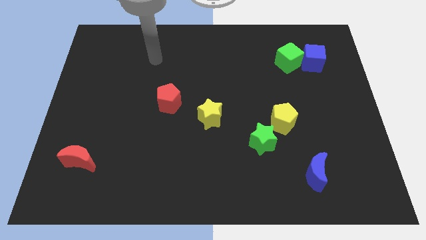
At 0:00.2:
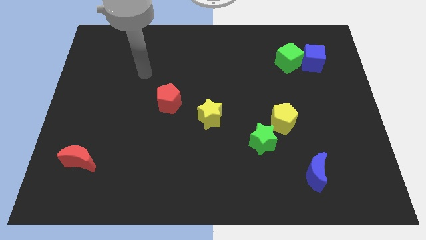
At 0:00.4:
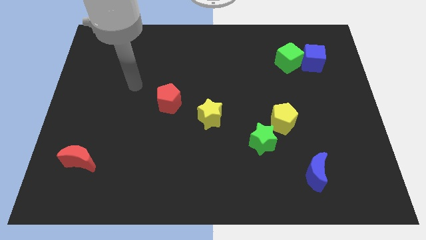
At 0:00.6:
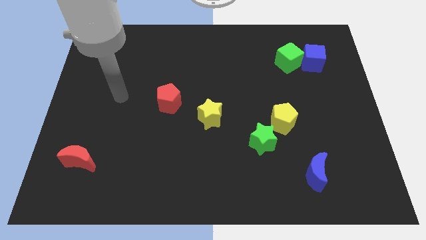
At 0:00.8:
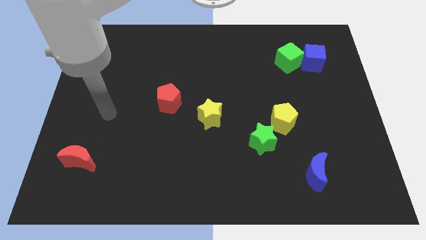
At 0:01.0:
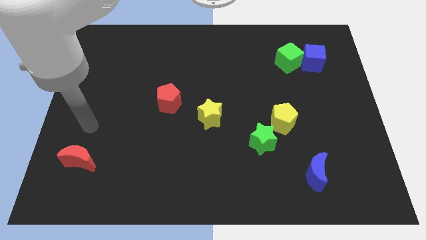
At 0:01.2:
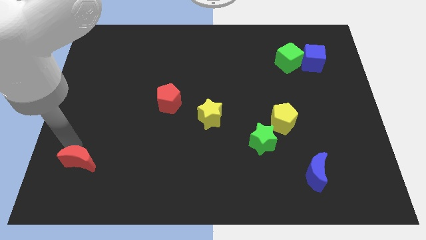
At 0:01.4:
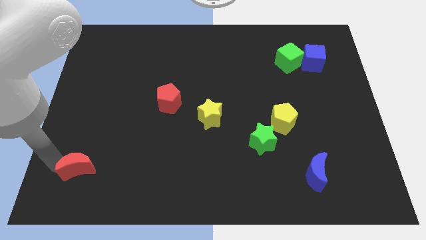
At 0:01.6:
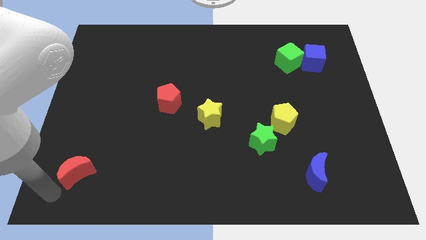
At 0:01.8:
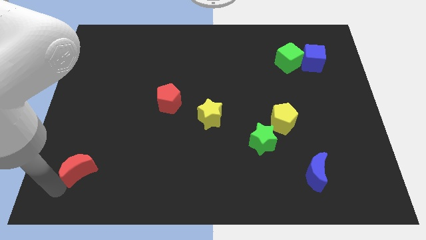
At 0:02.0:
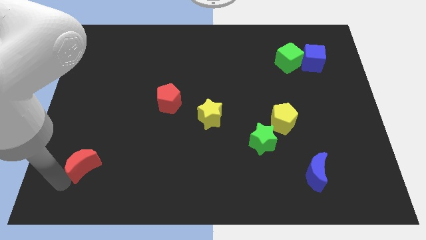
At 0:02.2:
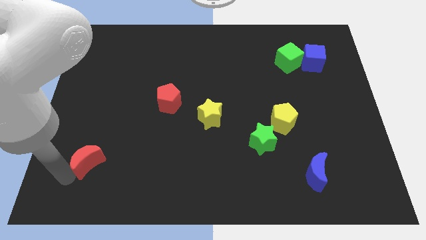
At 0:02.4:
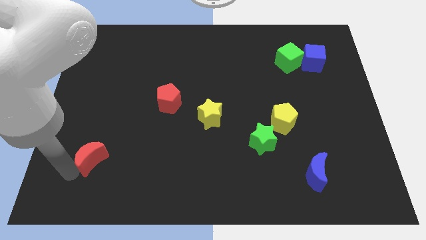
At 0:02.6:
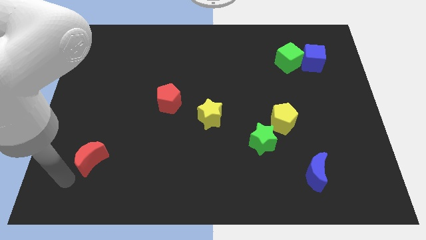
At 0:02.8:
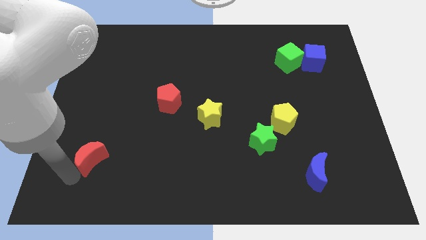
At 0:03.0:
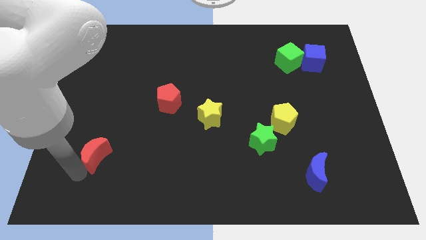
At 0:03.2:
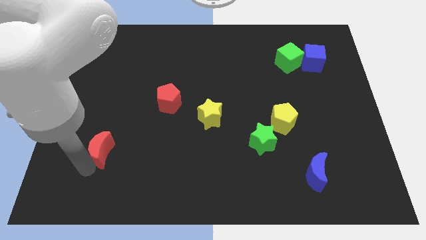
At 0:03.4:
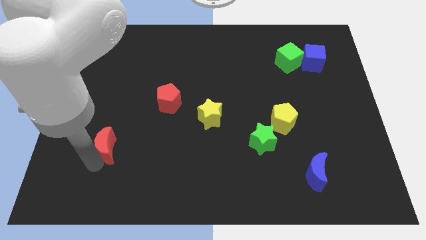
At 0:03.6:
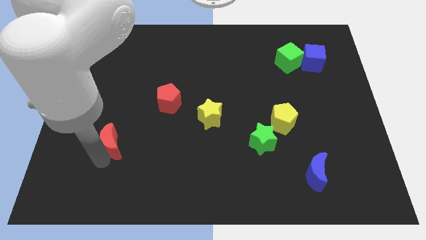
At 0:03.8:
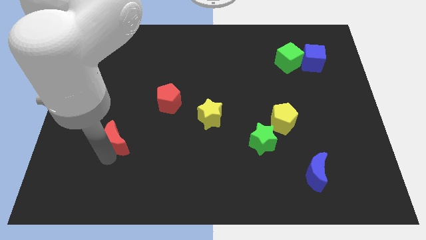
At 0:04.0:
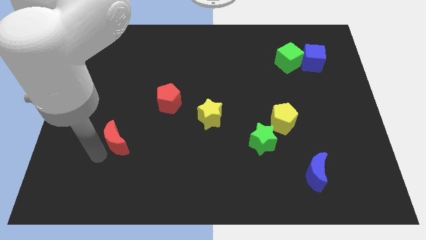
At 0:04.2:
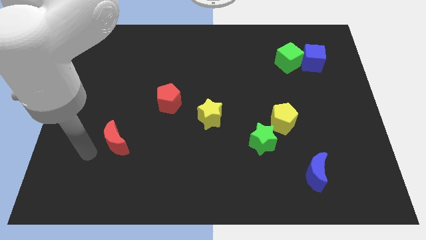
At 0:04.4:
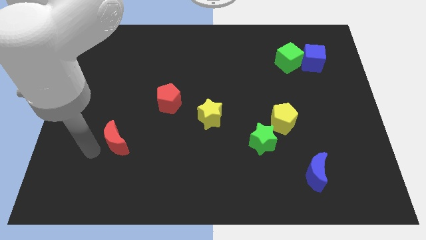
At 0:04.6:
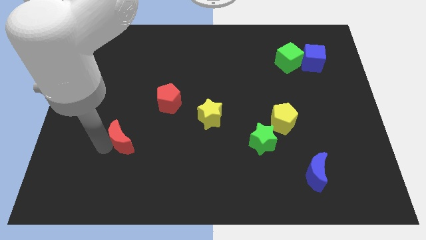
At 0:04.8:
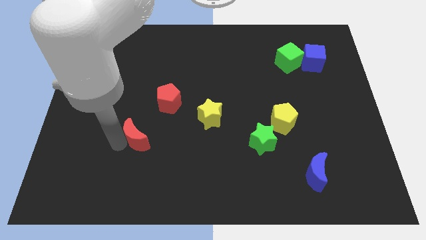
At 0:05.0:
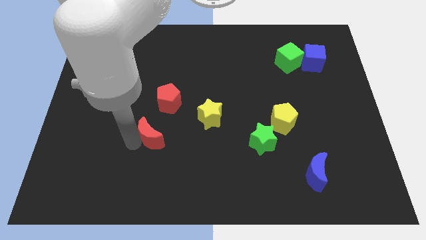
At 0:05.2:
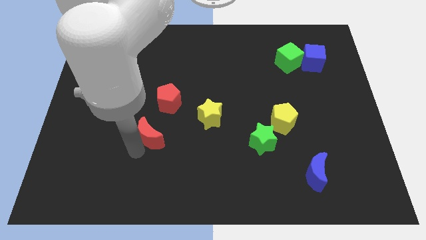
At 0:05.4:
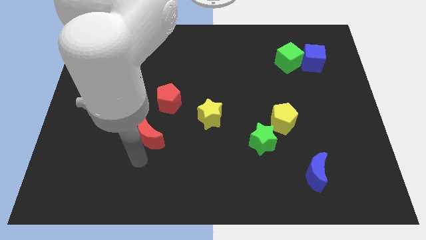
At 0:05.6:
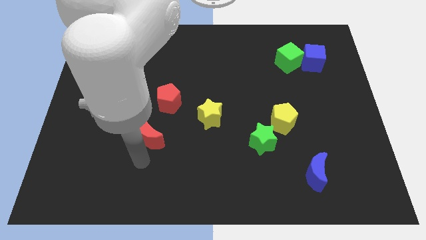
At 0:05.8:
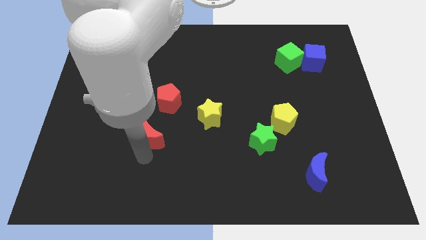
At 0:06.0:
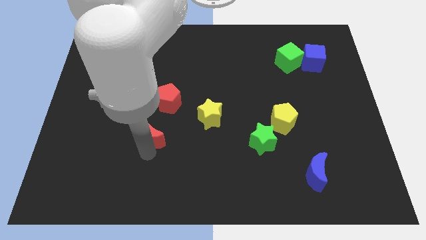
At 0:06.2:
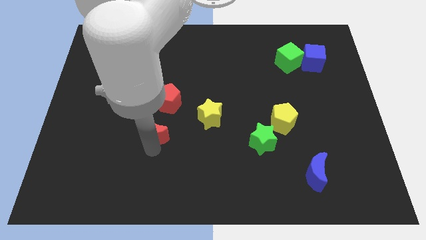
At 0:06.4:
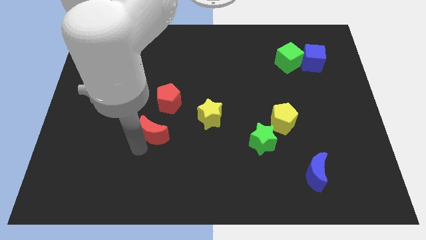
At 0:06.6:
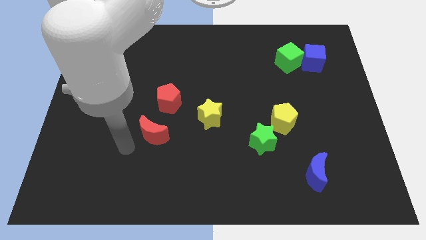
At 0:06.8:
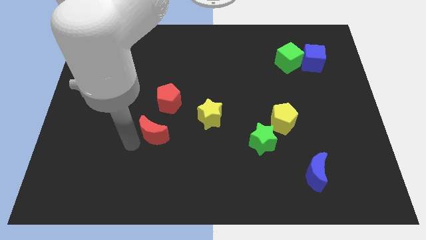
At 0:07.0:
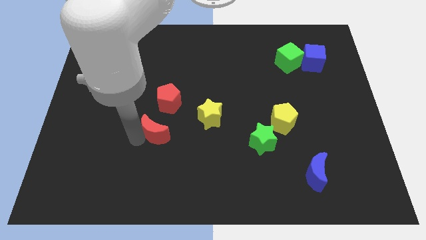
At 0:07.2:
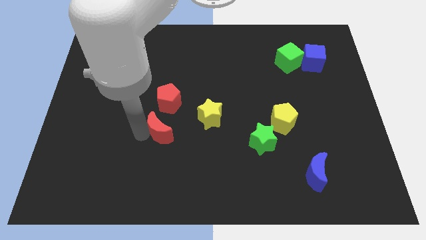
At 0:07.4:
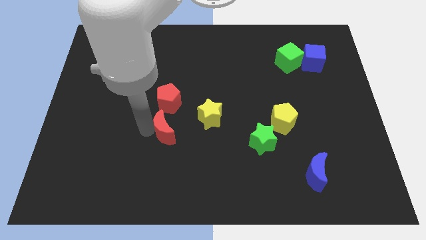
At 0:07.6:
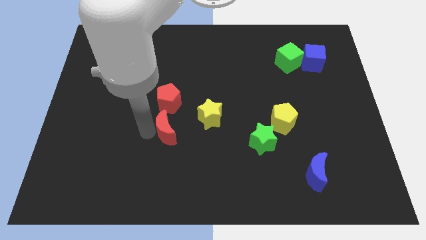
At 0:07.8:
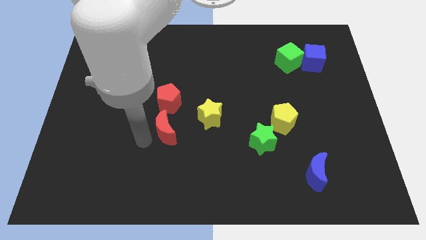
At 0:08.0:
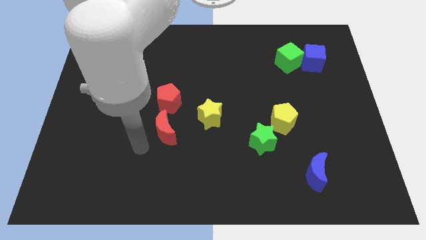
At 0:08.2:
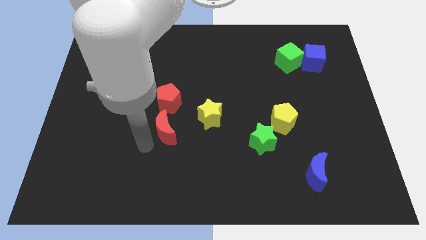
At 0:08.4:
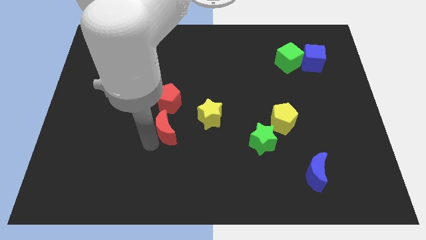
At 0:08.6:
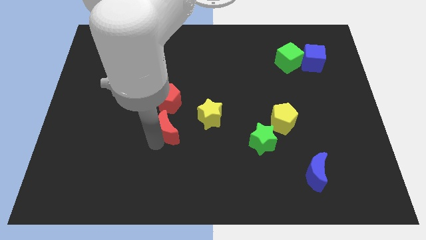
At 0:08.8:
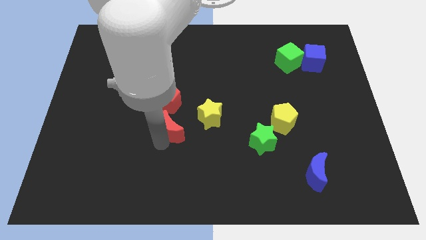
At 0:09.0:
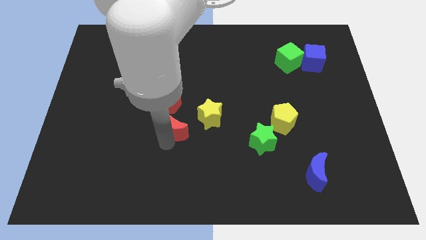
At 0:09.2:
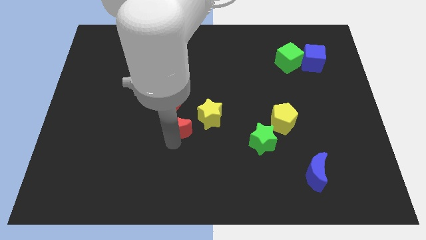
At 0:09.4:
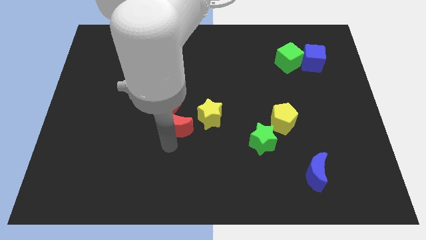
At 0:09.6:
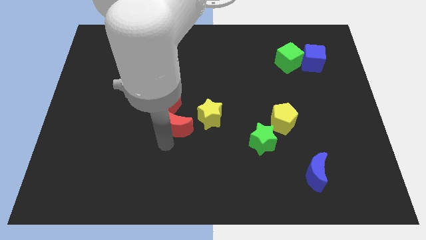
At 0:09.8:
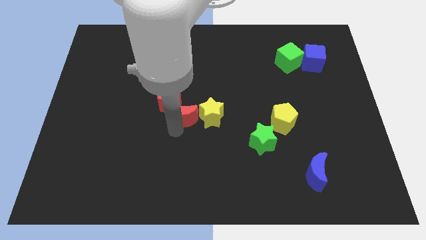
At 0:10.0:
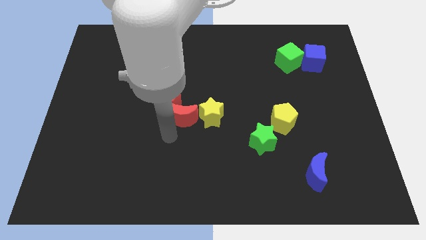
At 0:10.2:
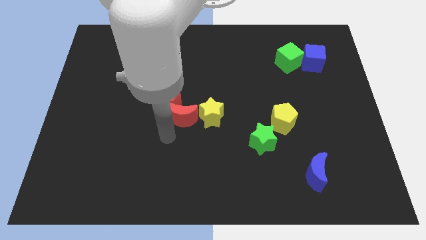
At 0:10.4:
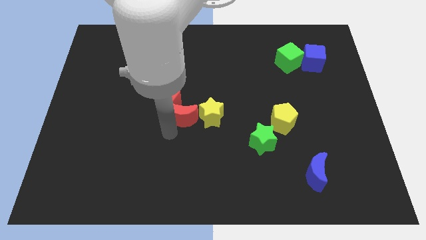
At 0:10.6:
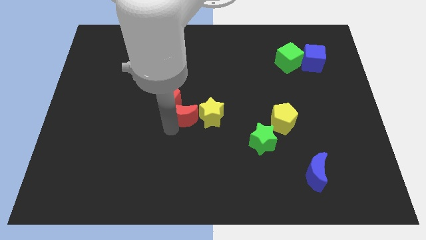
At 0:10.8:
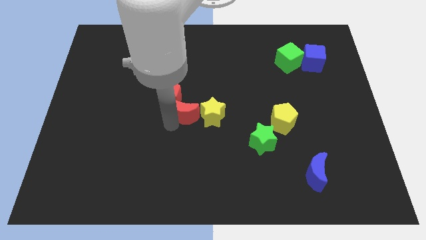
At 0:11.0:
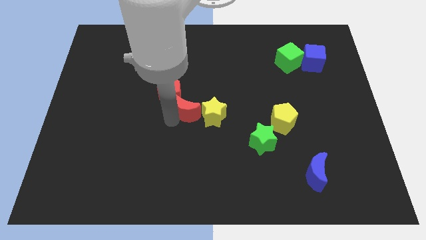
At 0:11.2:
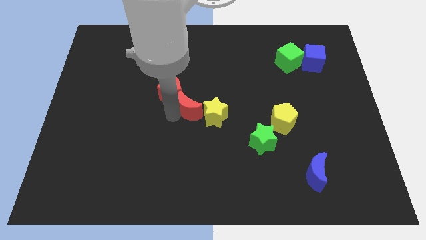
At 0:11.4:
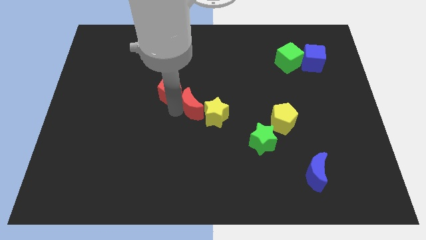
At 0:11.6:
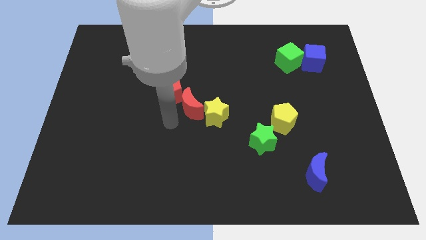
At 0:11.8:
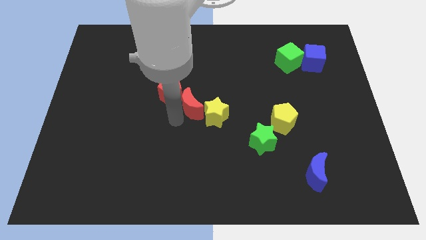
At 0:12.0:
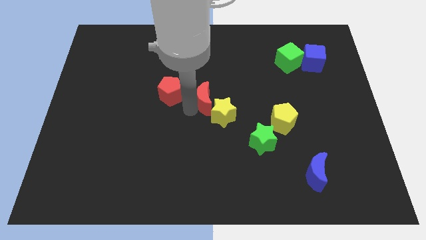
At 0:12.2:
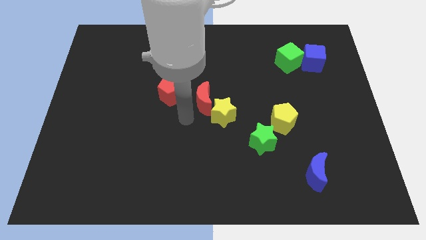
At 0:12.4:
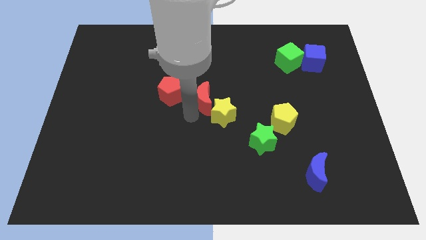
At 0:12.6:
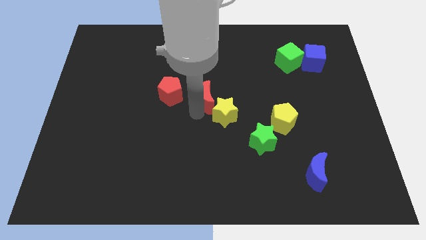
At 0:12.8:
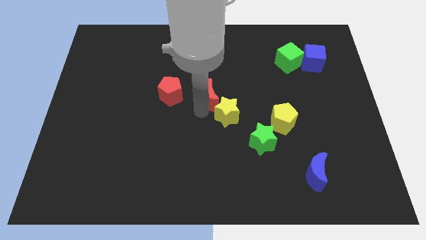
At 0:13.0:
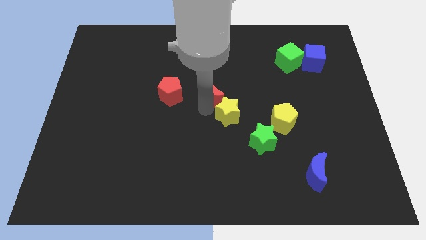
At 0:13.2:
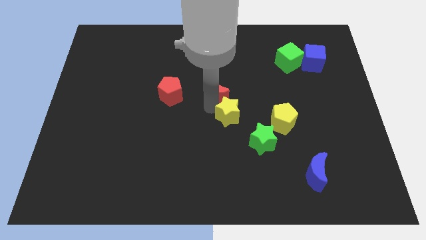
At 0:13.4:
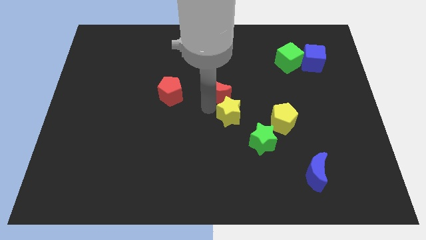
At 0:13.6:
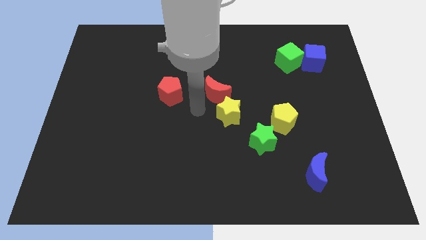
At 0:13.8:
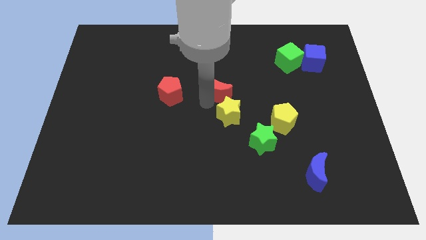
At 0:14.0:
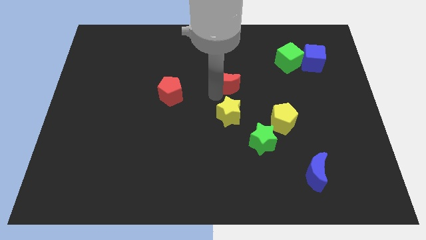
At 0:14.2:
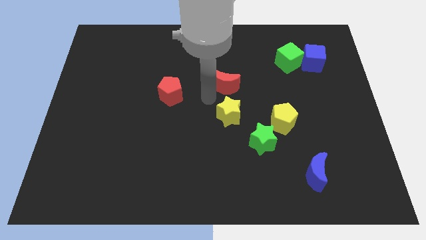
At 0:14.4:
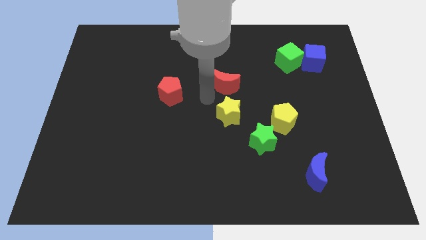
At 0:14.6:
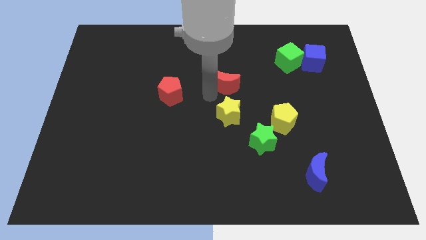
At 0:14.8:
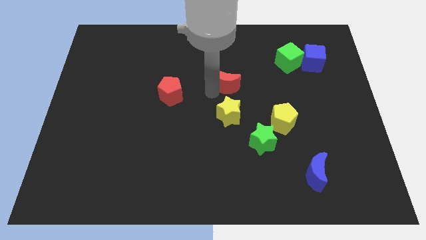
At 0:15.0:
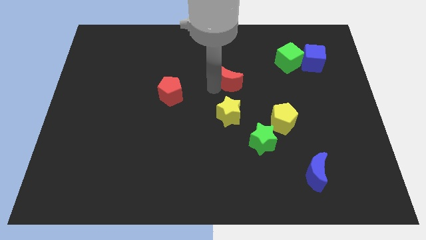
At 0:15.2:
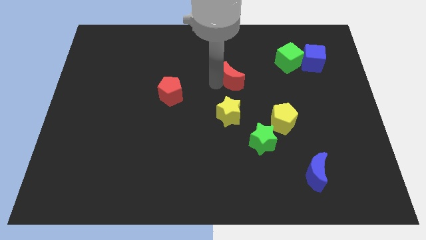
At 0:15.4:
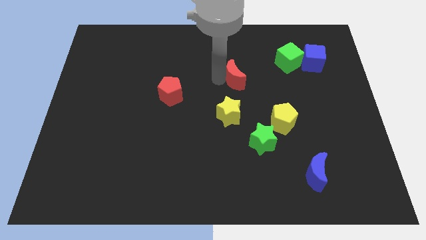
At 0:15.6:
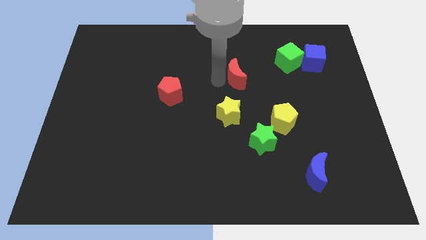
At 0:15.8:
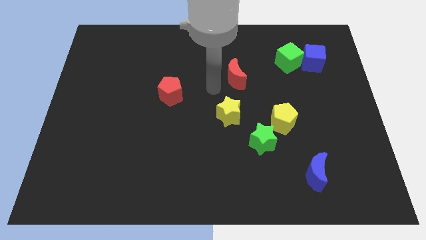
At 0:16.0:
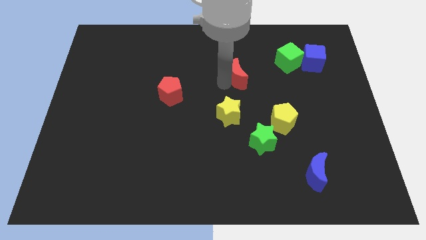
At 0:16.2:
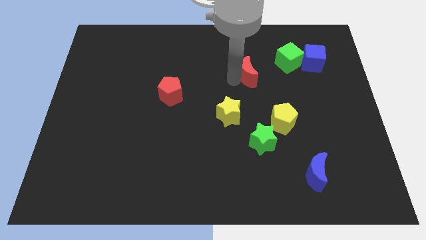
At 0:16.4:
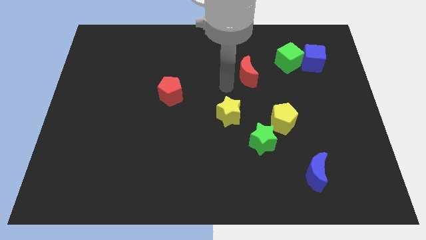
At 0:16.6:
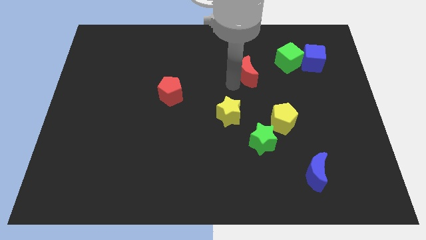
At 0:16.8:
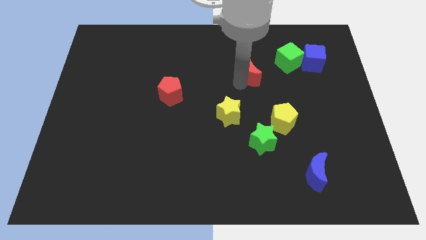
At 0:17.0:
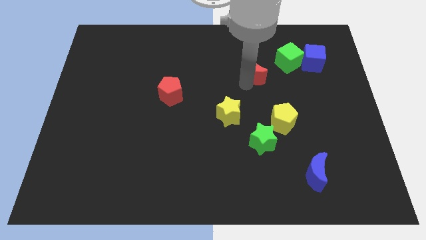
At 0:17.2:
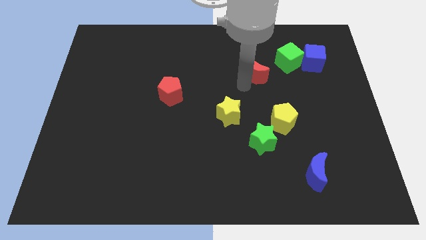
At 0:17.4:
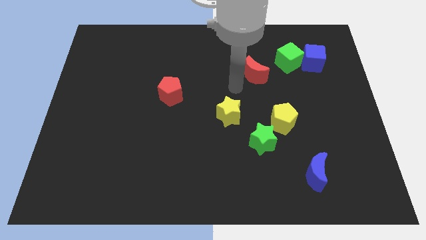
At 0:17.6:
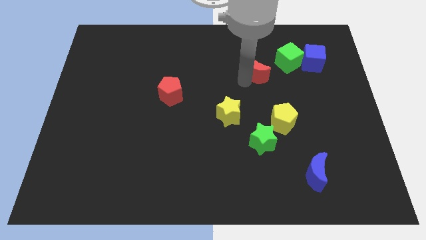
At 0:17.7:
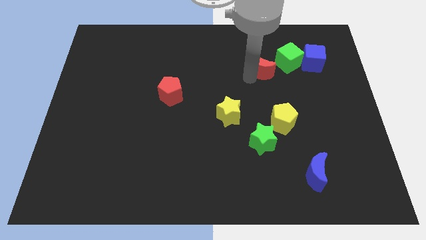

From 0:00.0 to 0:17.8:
push the red moon to the left side of the blue cube
